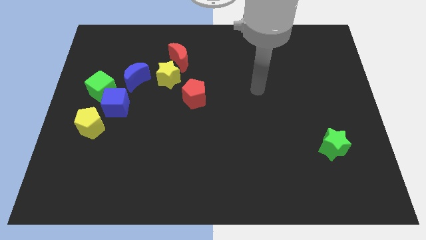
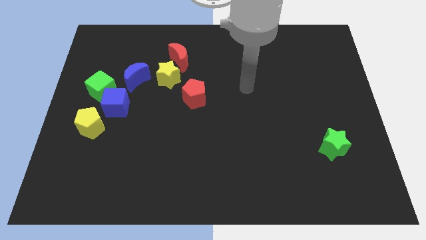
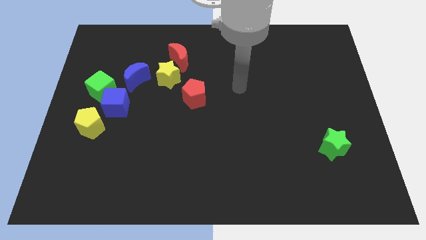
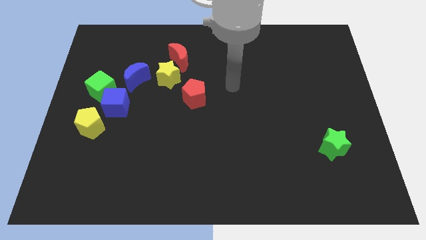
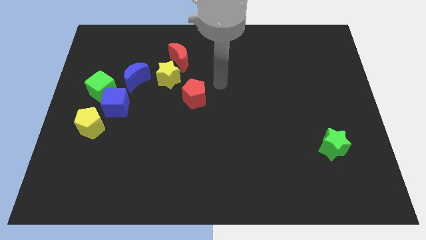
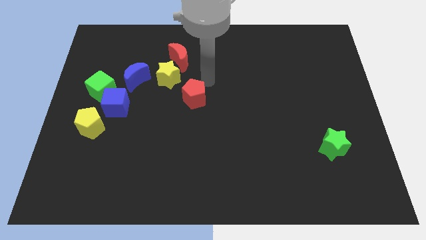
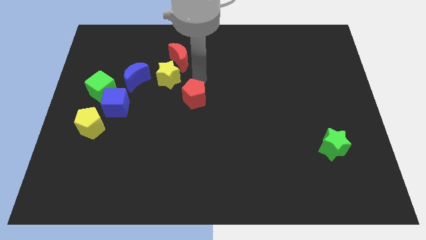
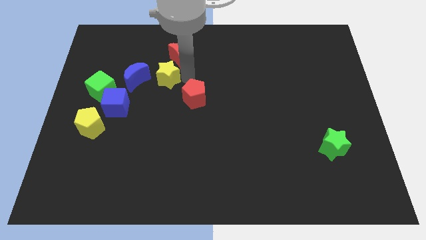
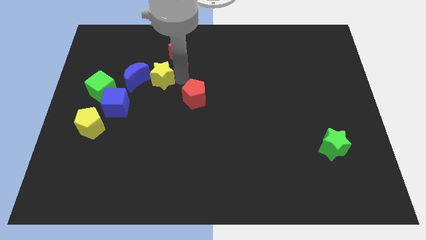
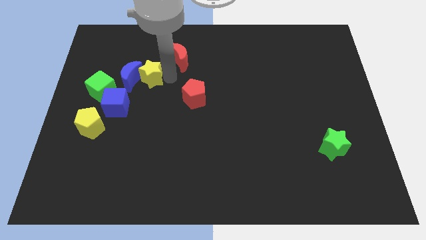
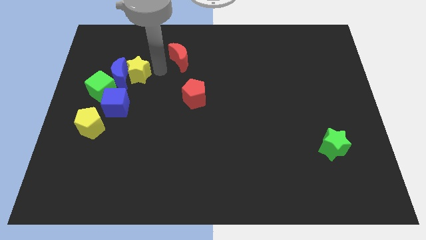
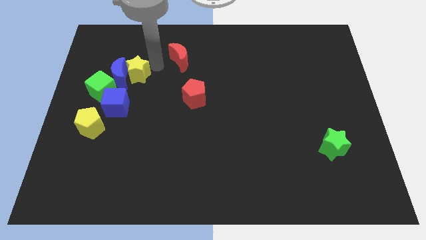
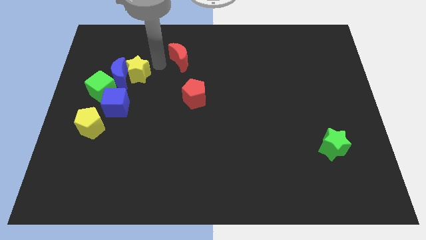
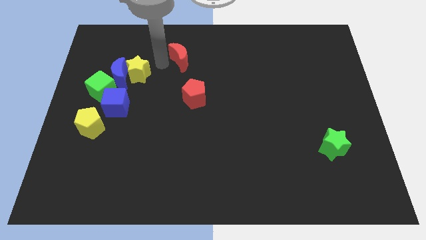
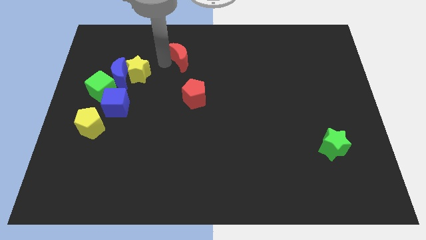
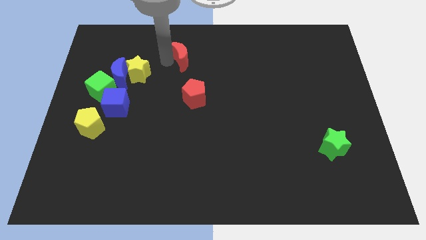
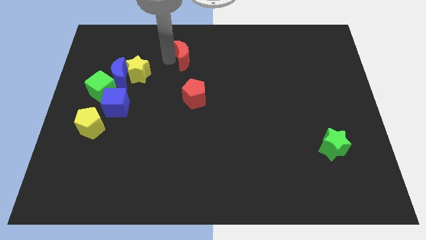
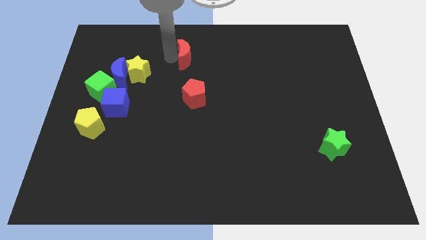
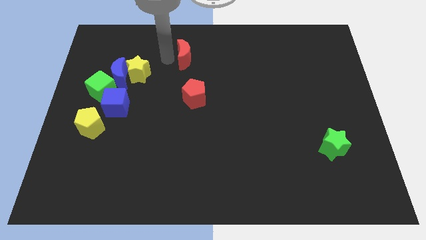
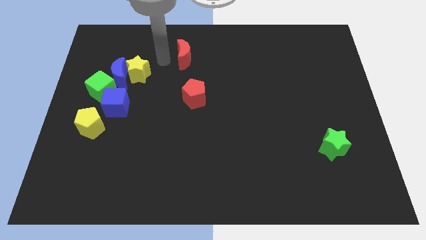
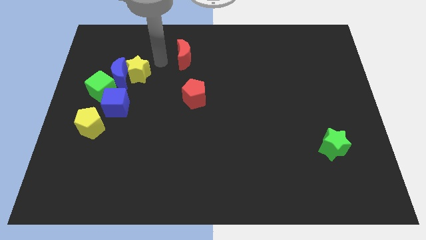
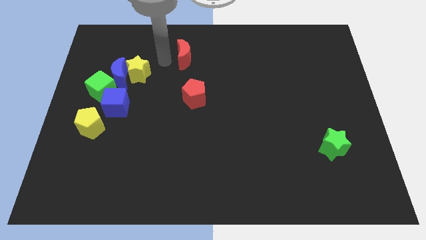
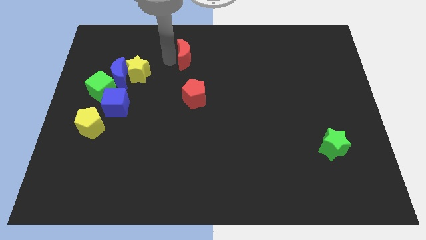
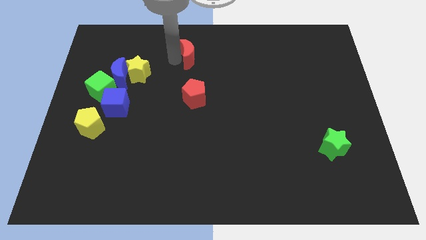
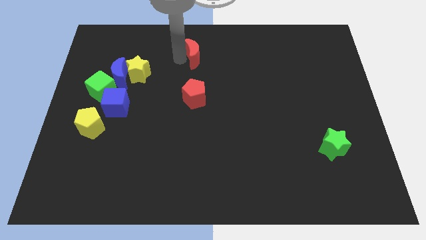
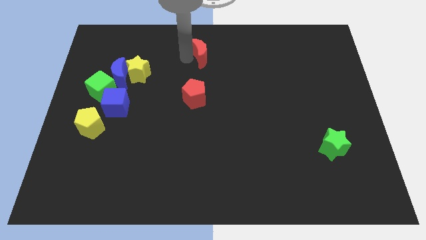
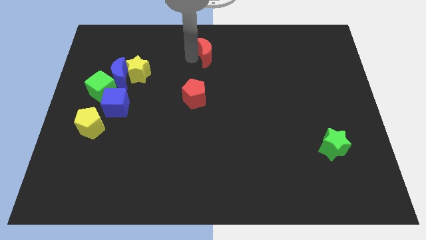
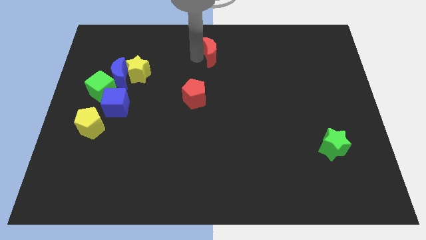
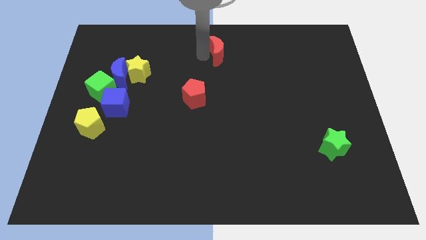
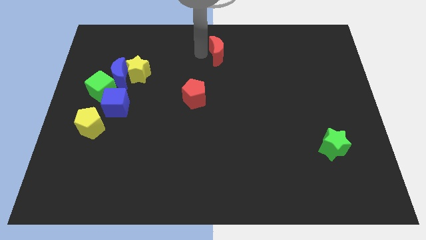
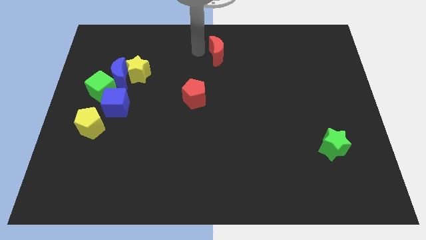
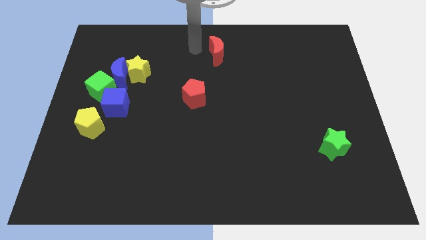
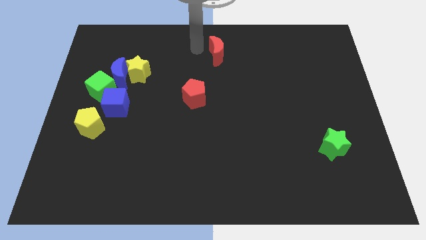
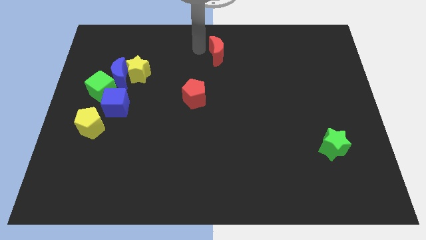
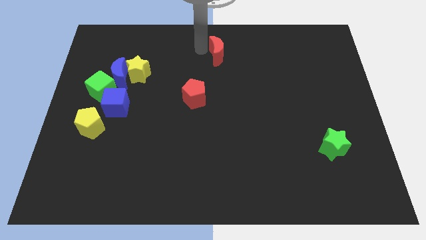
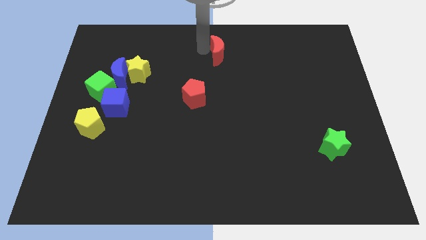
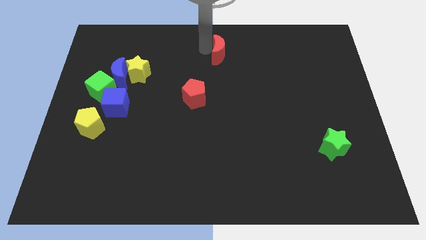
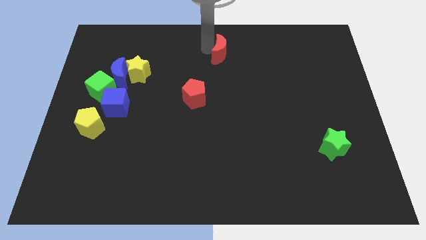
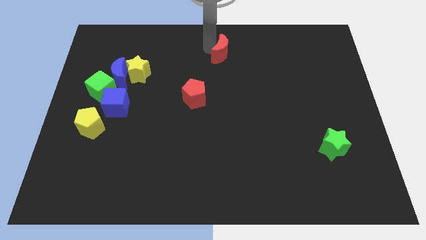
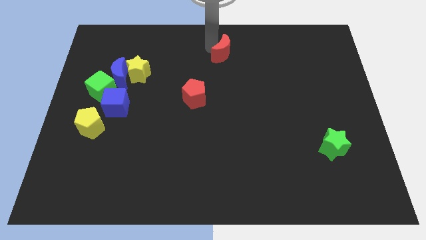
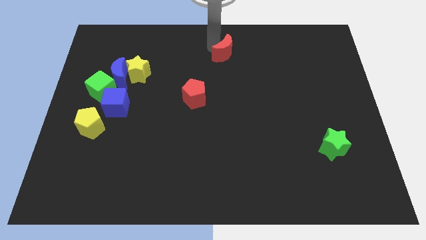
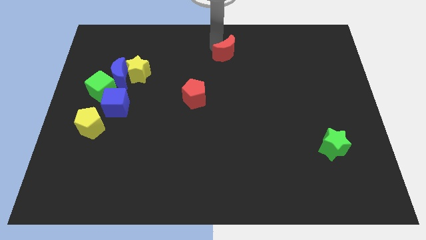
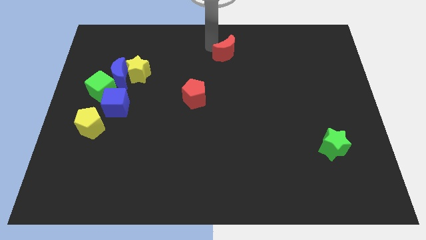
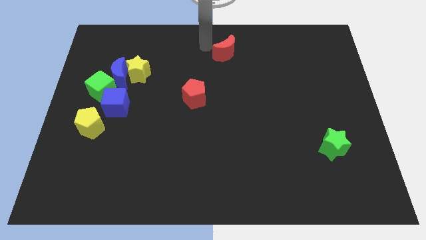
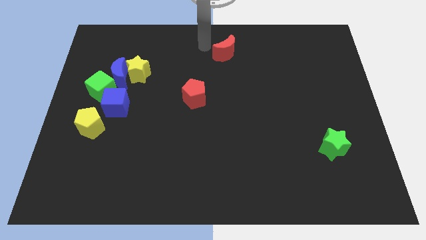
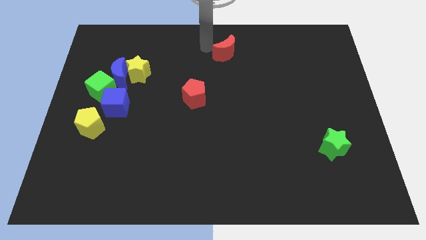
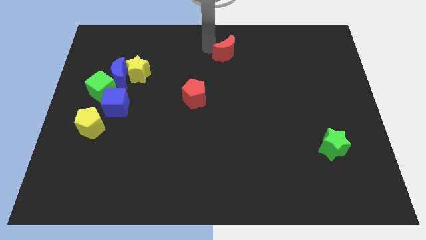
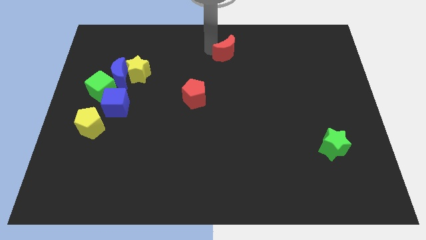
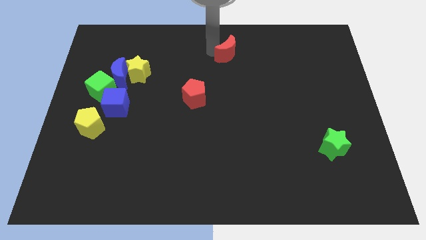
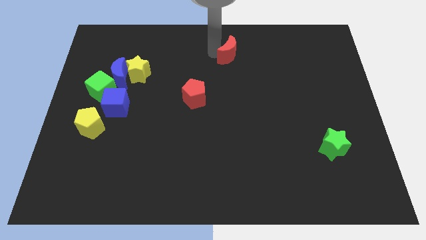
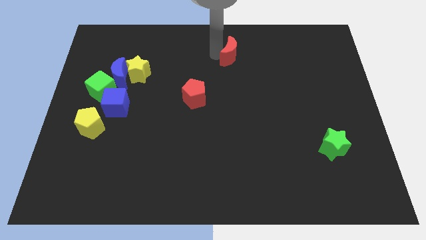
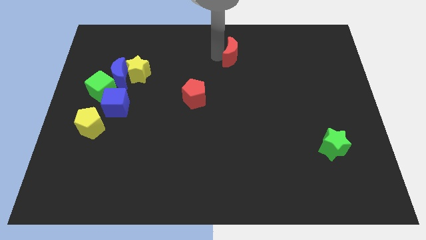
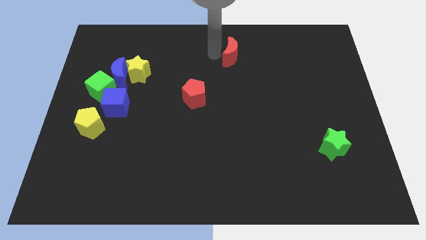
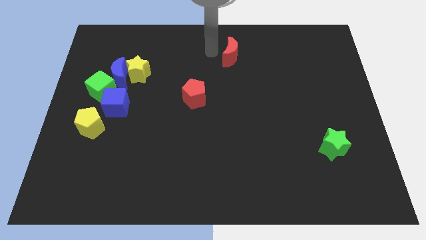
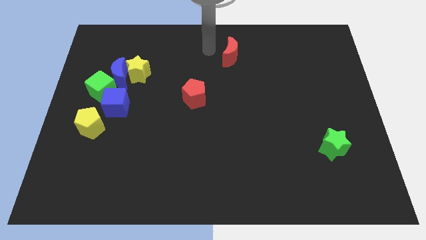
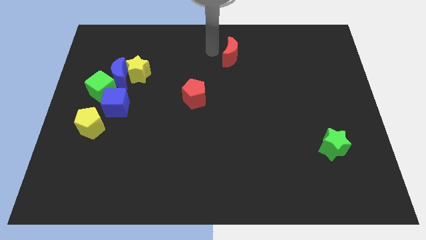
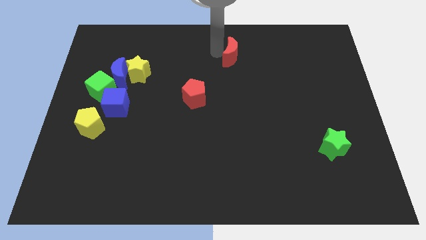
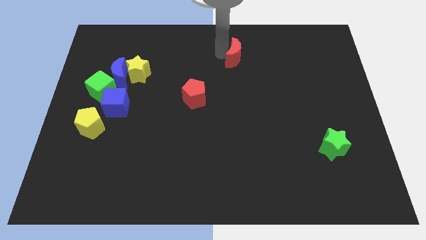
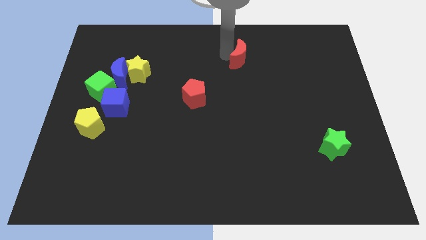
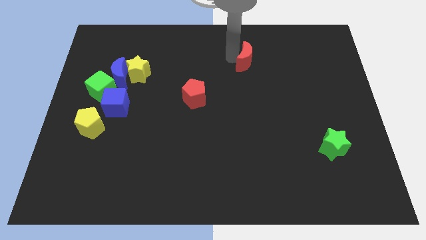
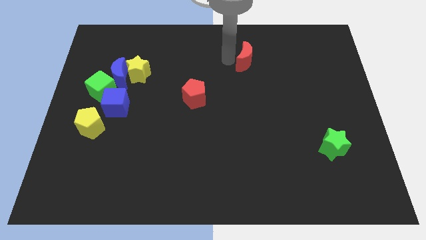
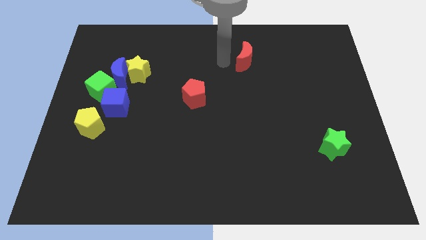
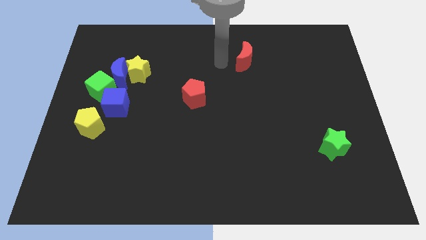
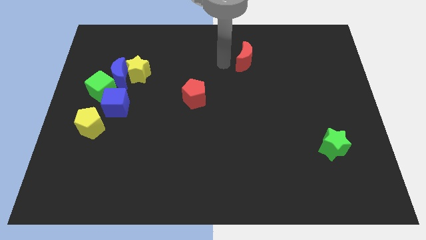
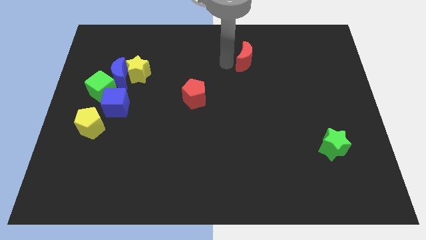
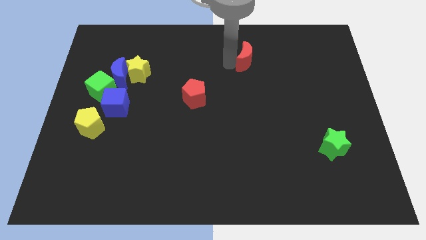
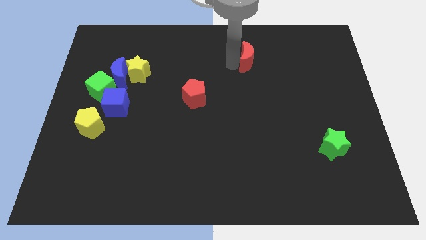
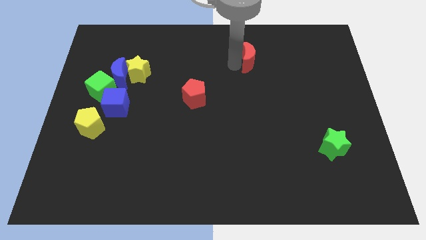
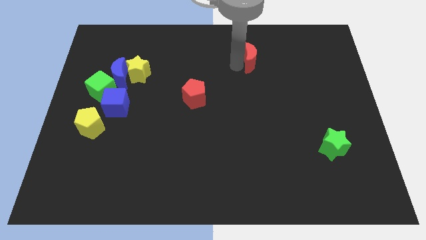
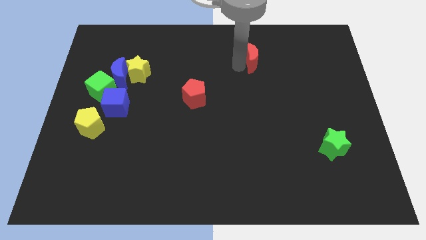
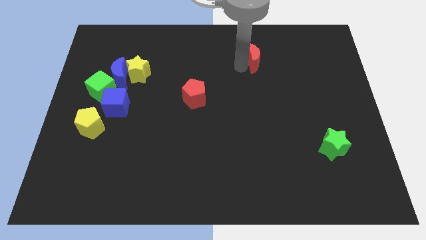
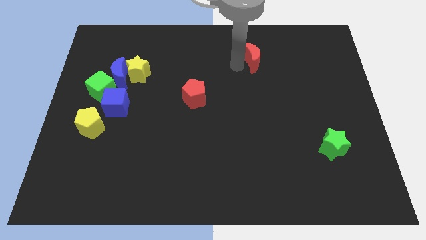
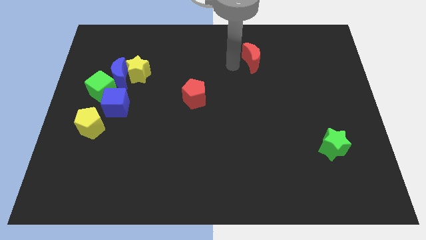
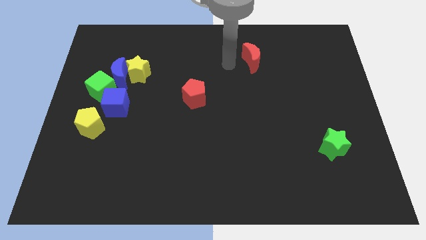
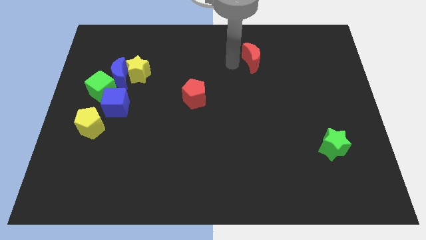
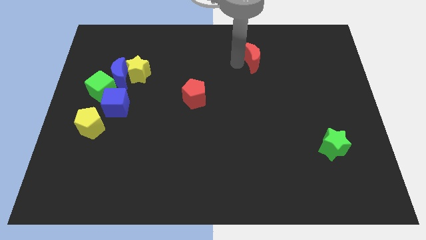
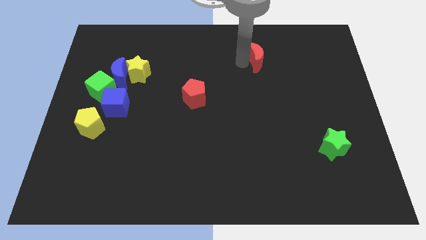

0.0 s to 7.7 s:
move the red moon right

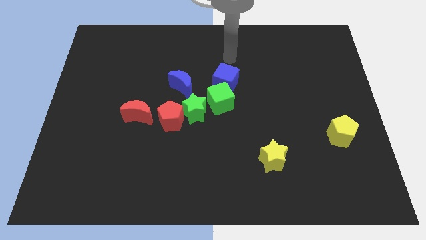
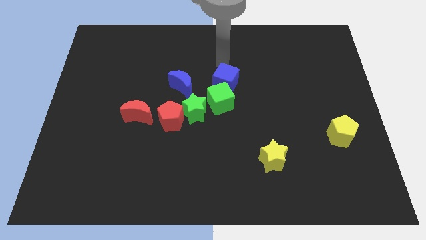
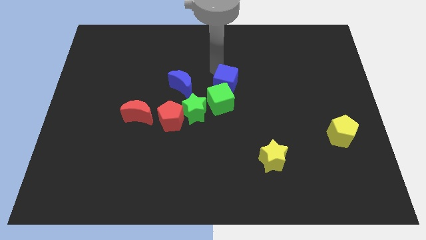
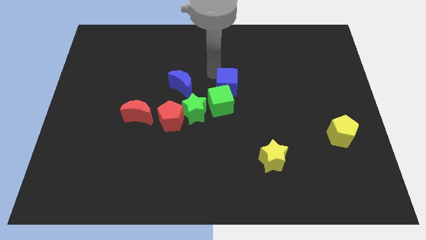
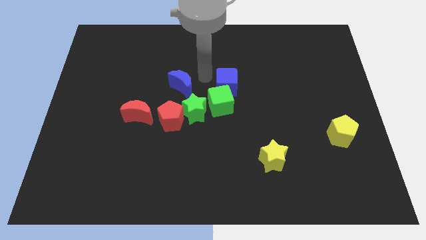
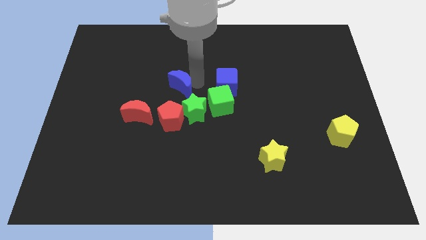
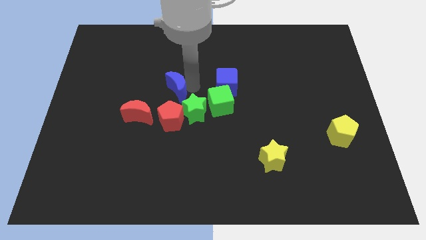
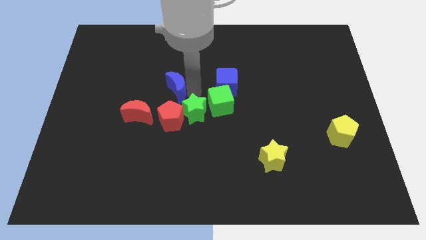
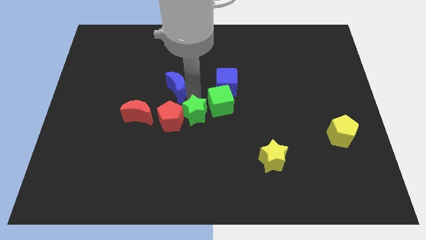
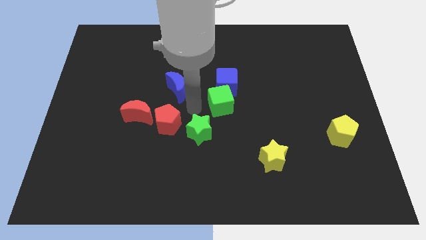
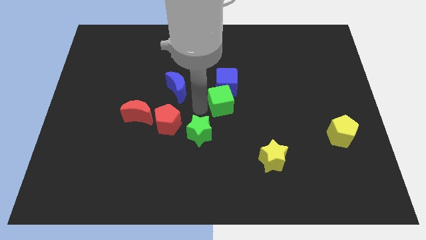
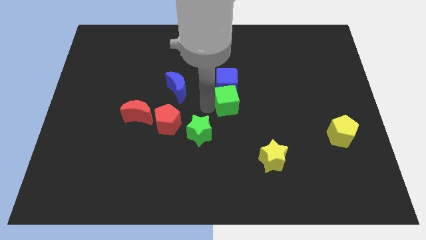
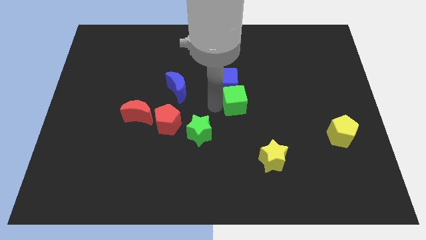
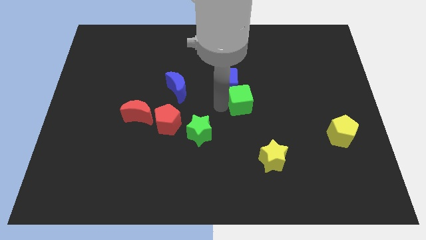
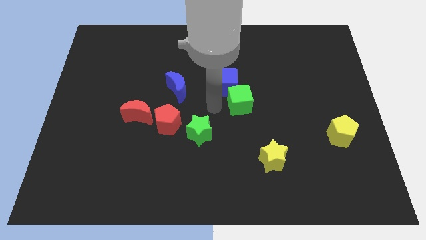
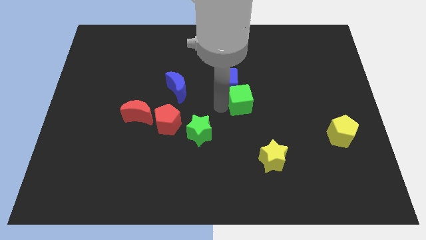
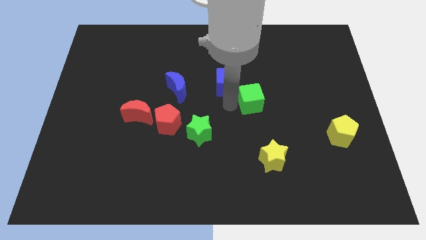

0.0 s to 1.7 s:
slightly move the green cube right
